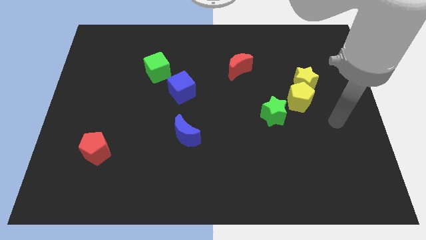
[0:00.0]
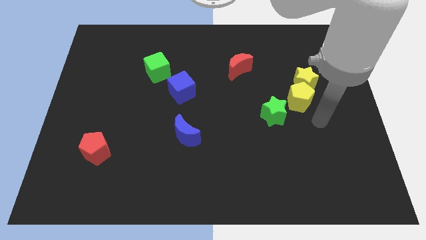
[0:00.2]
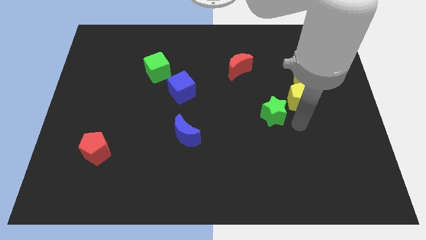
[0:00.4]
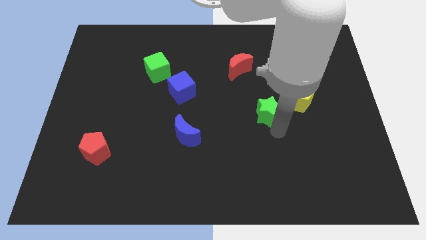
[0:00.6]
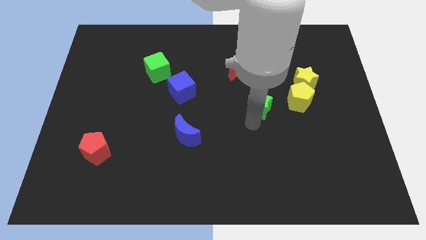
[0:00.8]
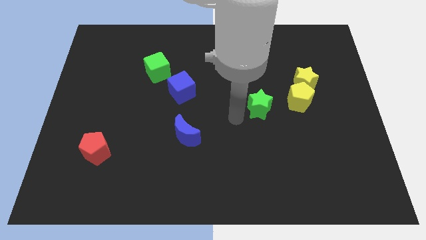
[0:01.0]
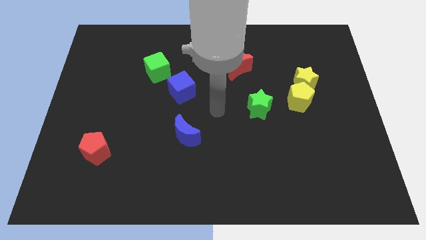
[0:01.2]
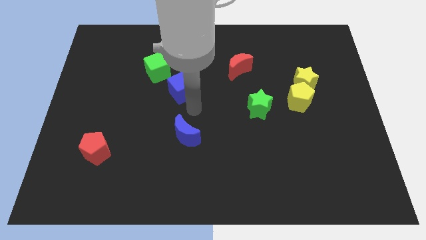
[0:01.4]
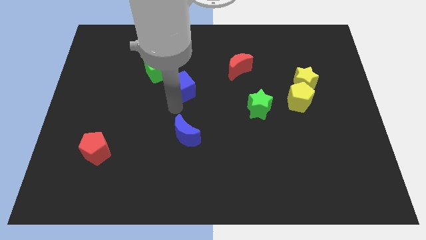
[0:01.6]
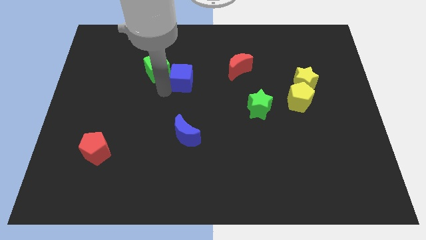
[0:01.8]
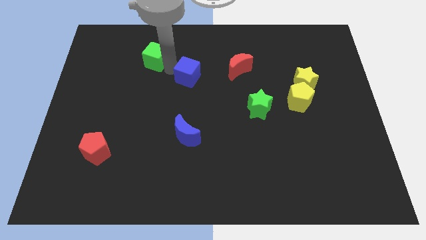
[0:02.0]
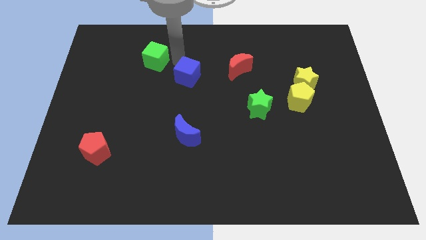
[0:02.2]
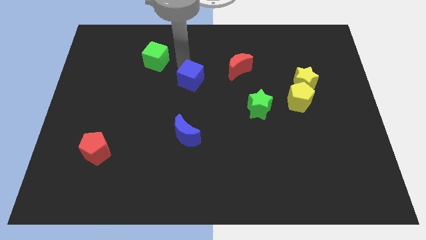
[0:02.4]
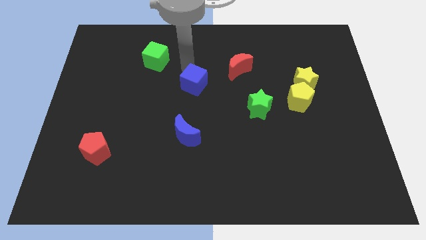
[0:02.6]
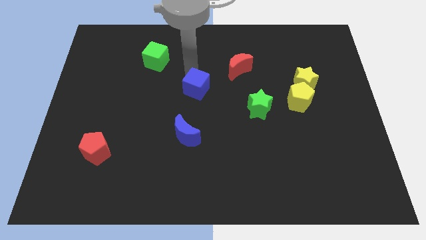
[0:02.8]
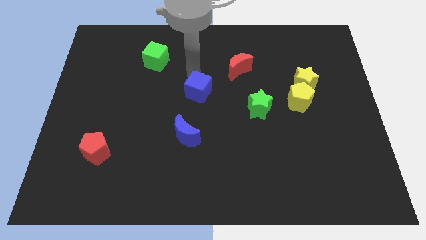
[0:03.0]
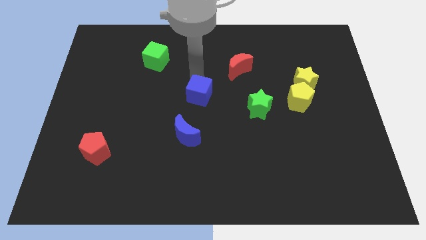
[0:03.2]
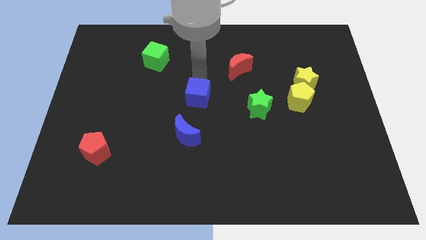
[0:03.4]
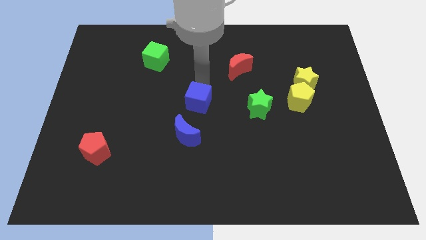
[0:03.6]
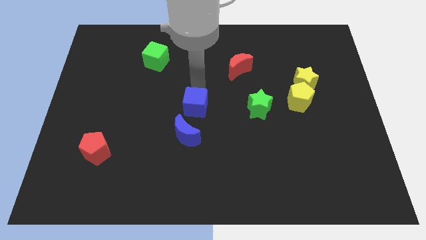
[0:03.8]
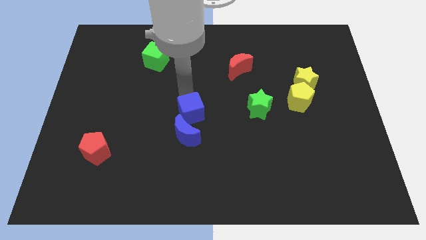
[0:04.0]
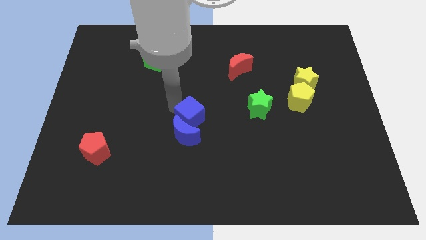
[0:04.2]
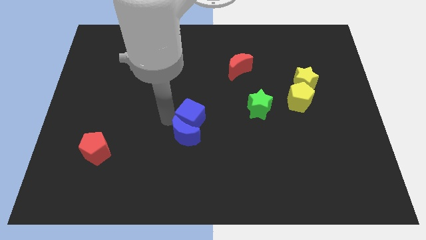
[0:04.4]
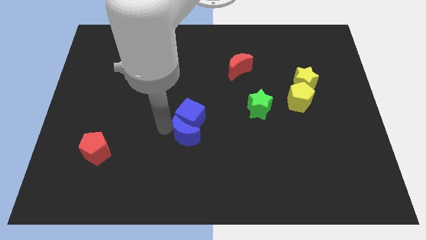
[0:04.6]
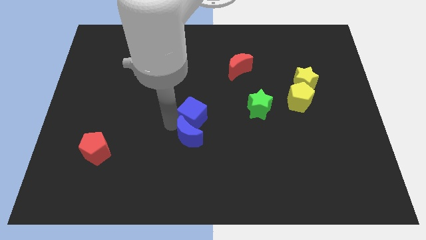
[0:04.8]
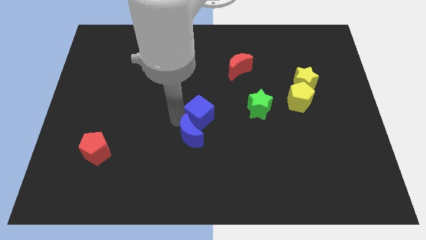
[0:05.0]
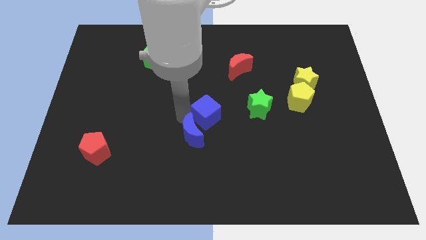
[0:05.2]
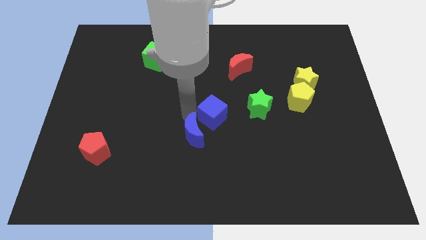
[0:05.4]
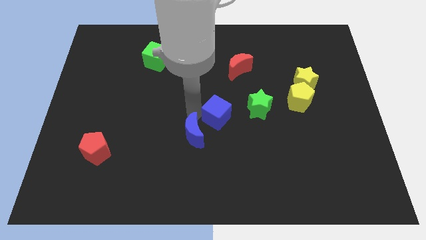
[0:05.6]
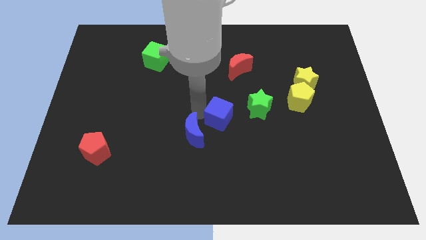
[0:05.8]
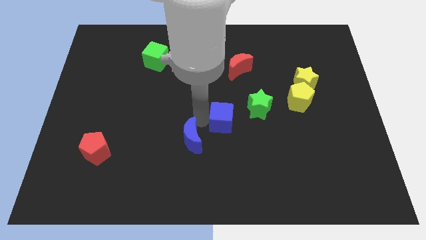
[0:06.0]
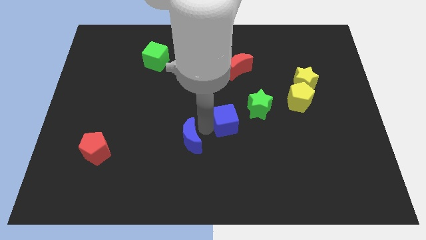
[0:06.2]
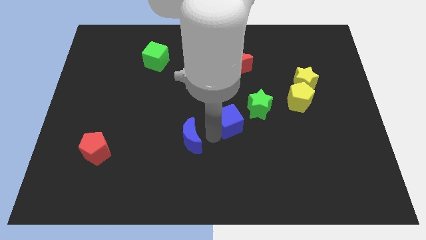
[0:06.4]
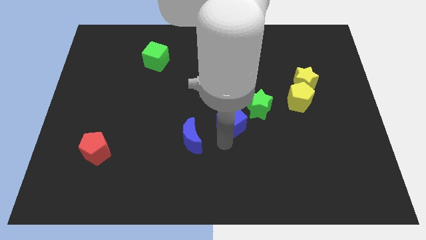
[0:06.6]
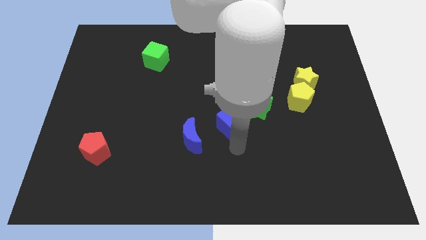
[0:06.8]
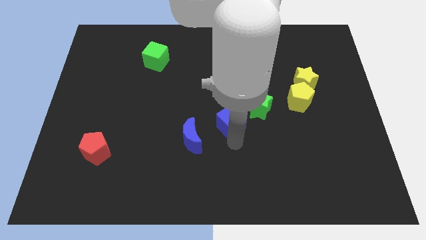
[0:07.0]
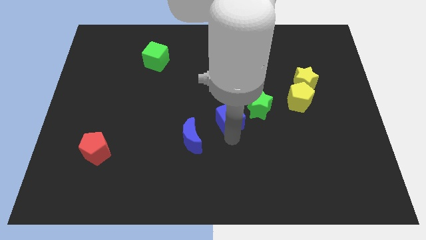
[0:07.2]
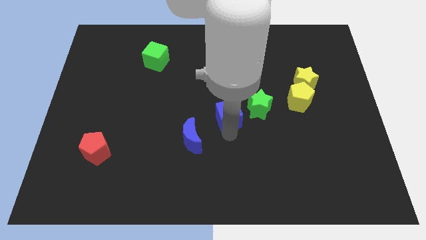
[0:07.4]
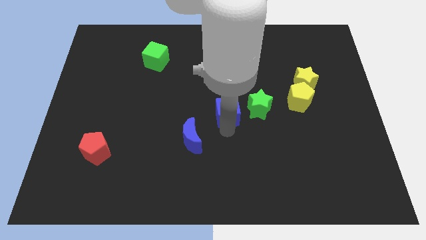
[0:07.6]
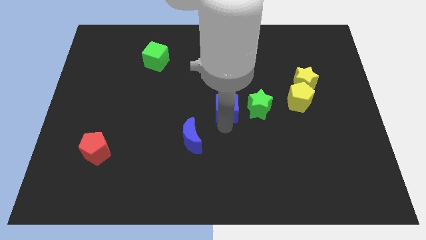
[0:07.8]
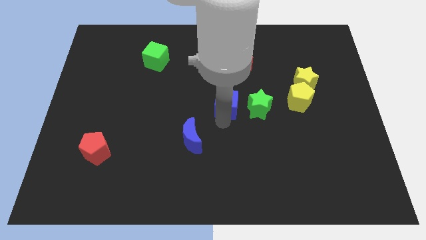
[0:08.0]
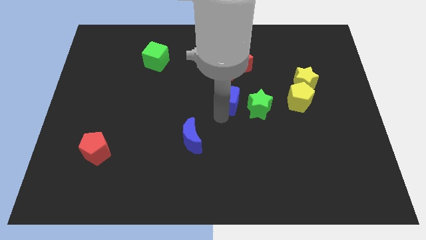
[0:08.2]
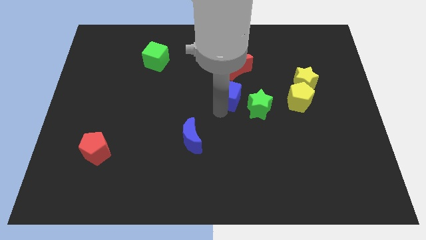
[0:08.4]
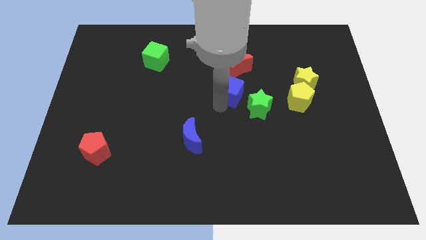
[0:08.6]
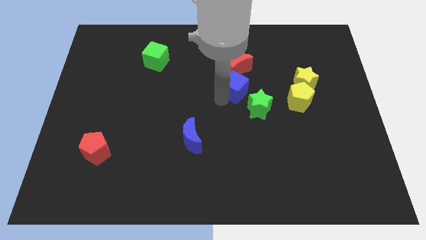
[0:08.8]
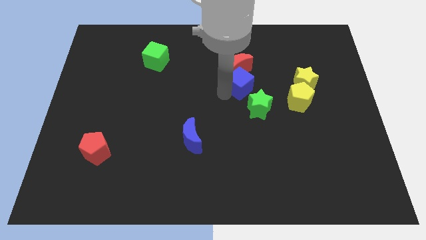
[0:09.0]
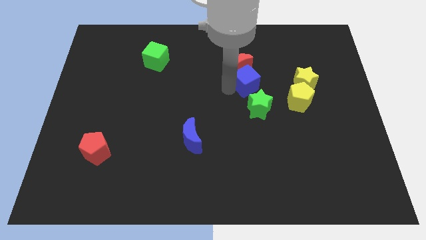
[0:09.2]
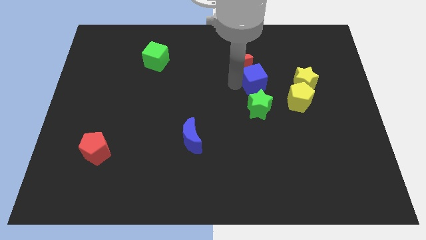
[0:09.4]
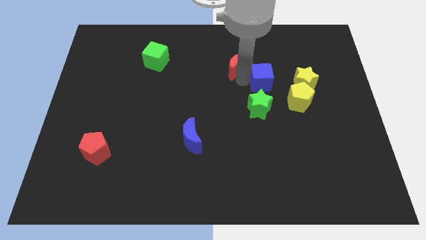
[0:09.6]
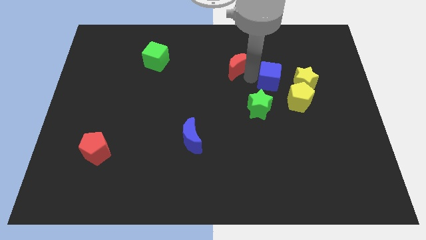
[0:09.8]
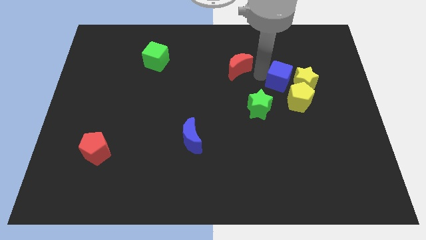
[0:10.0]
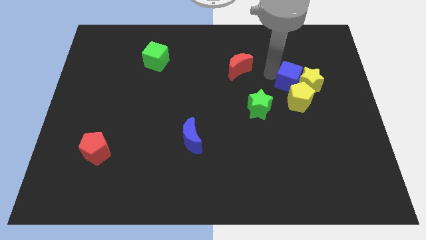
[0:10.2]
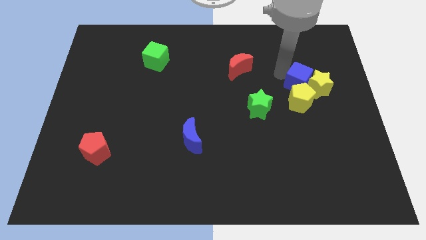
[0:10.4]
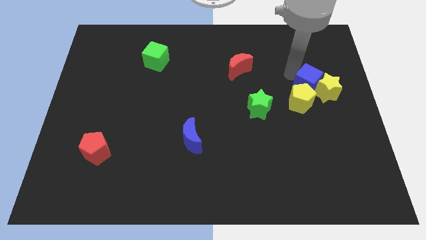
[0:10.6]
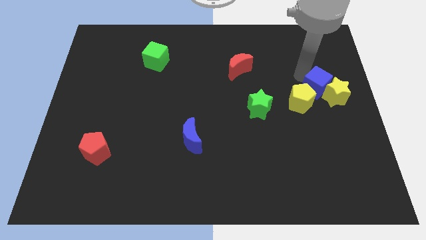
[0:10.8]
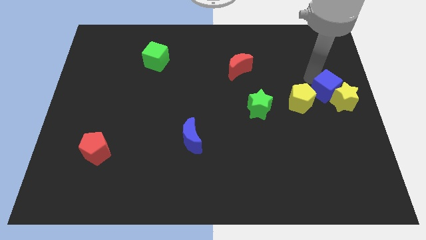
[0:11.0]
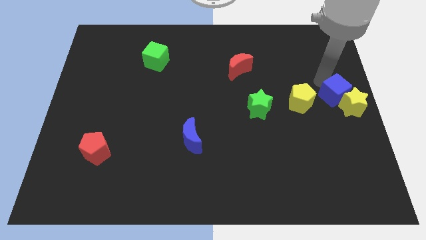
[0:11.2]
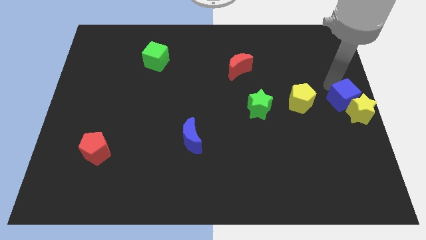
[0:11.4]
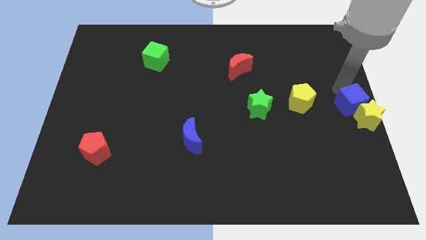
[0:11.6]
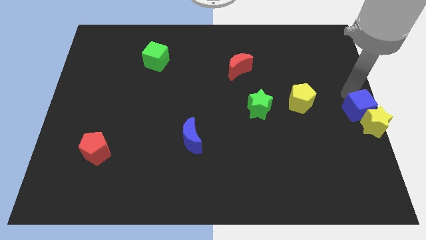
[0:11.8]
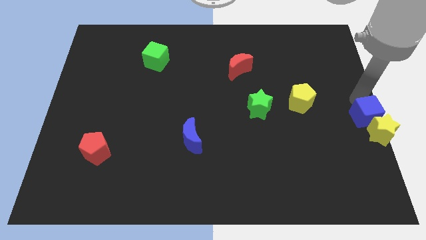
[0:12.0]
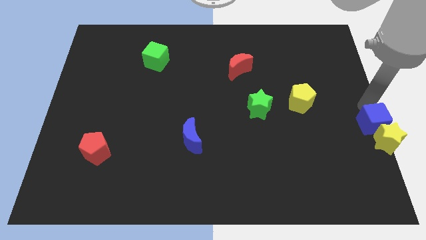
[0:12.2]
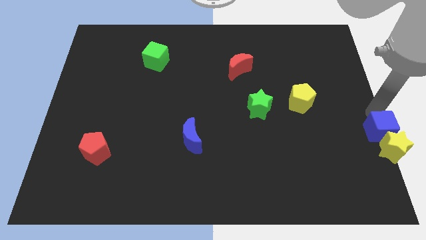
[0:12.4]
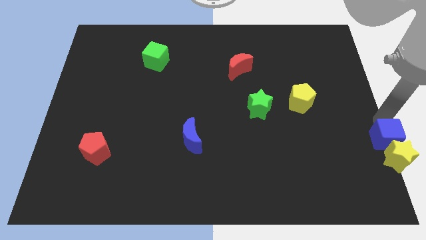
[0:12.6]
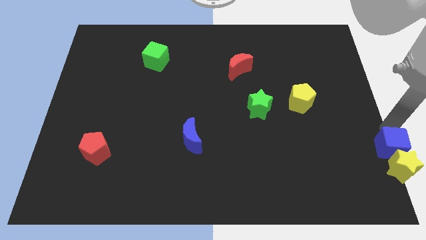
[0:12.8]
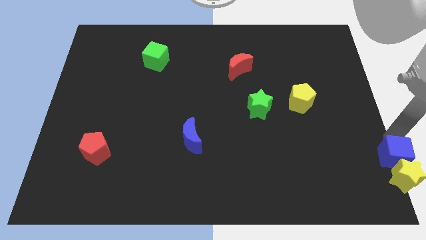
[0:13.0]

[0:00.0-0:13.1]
push the blue cube to the bottom right of the board
